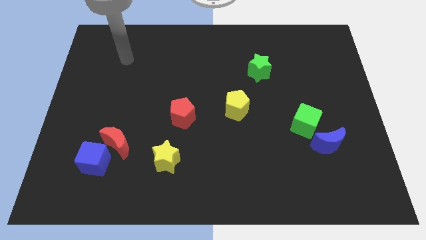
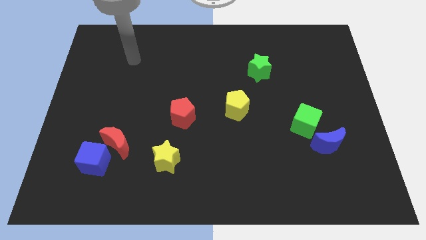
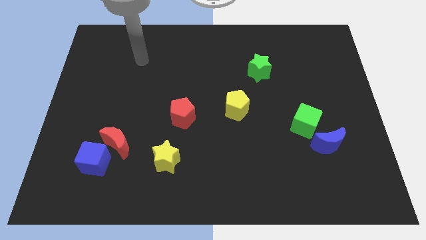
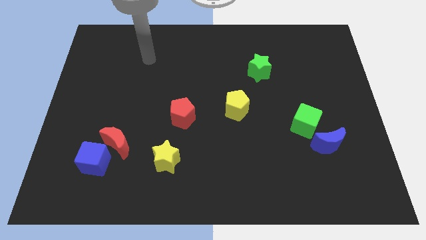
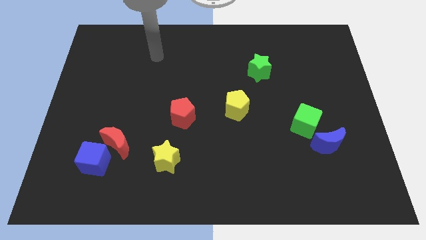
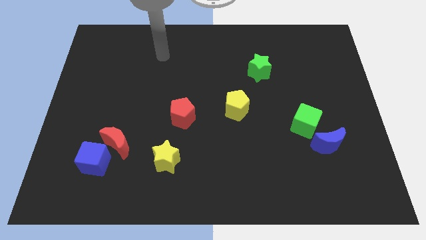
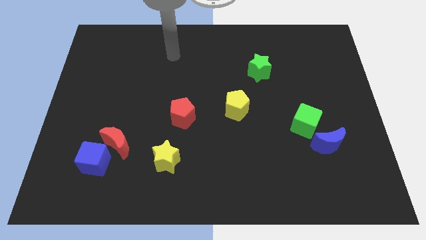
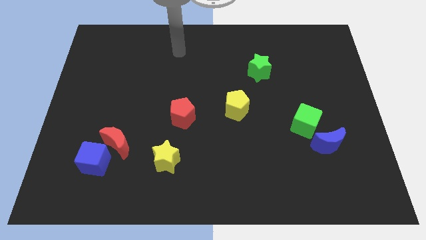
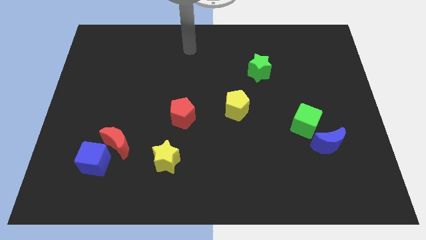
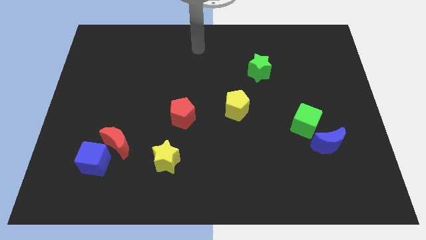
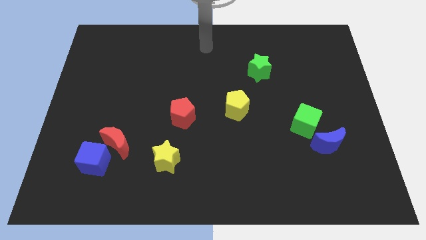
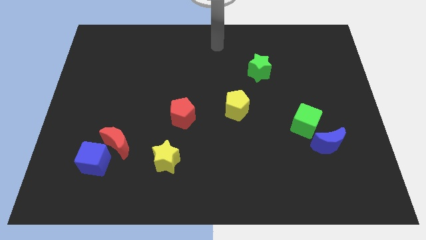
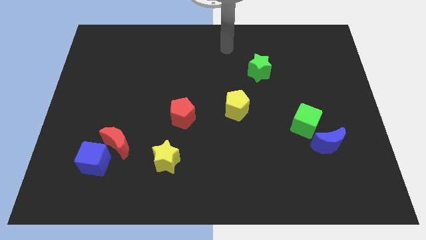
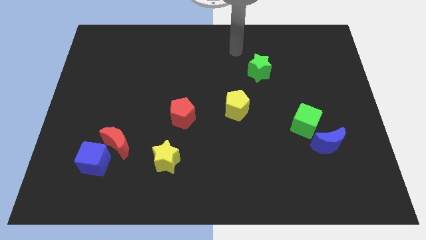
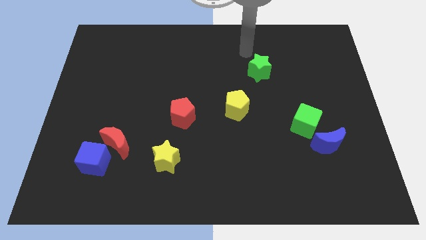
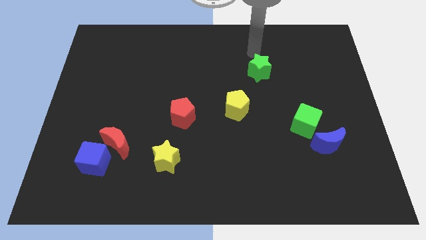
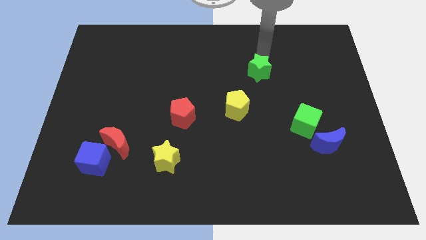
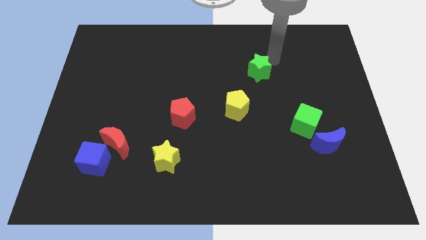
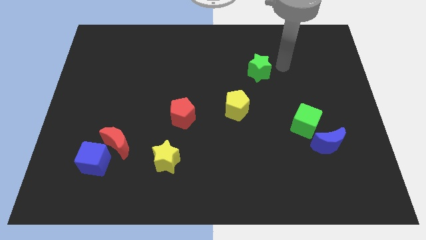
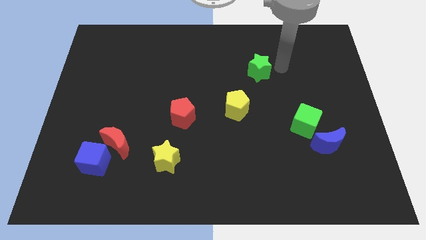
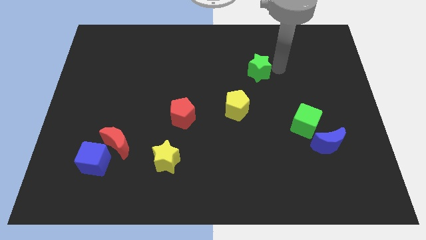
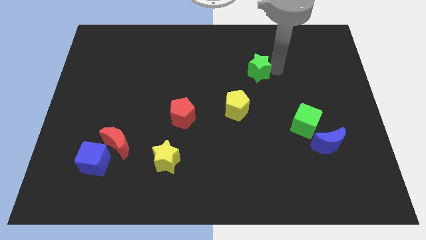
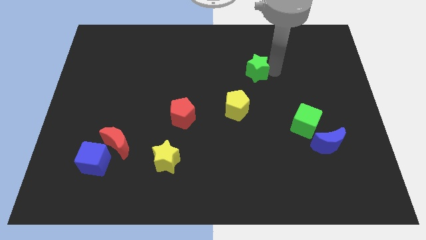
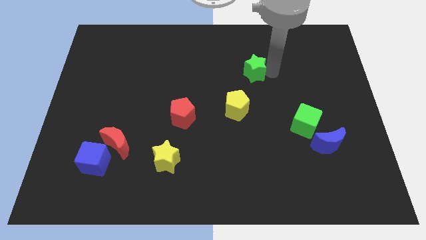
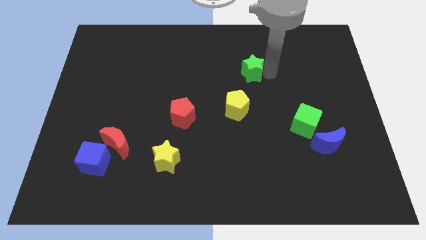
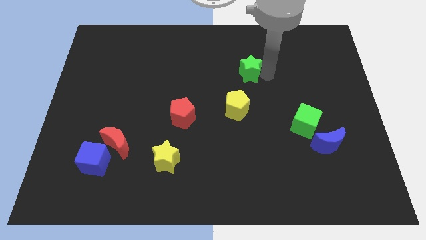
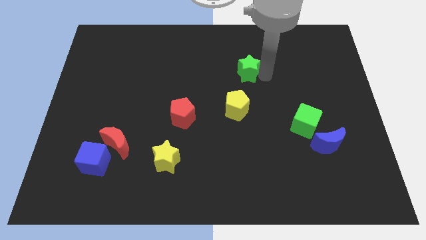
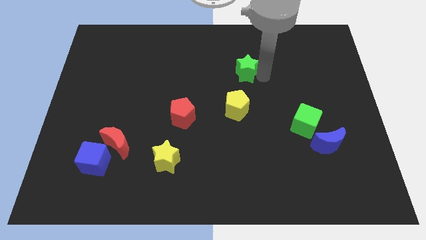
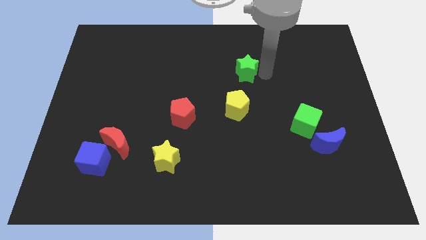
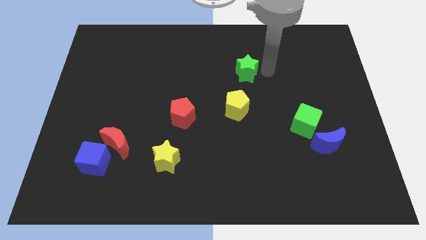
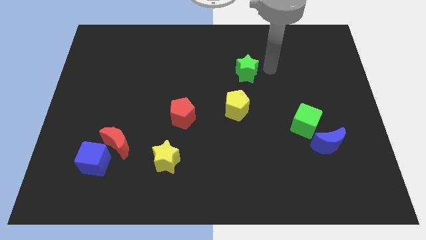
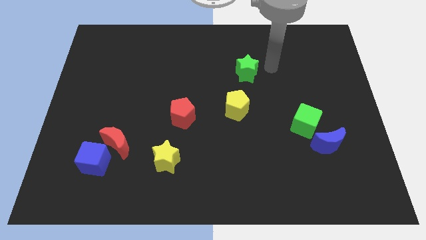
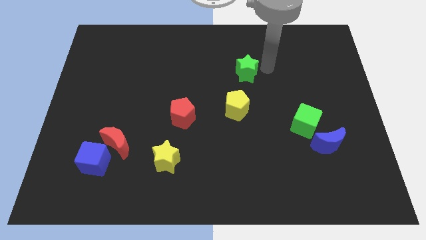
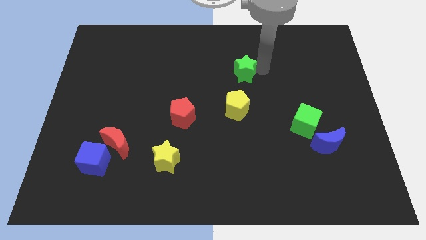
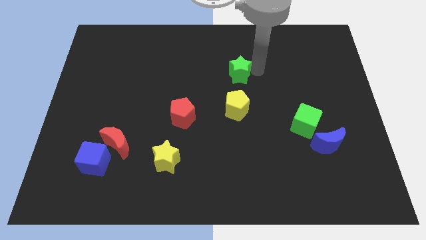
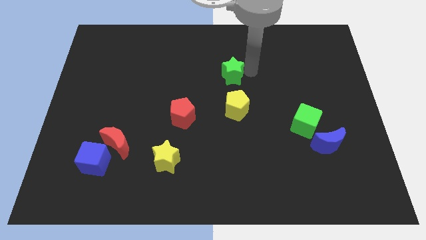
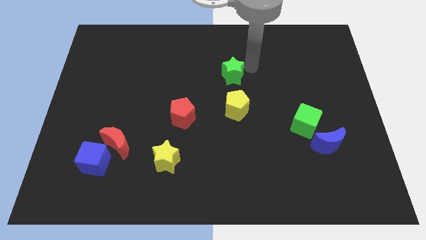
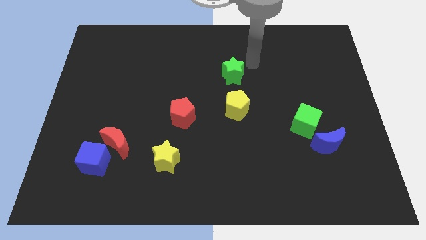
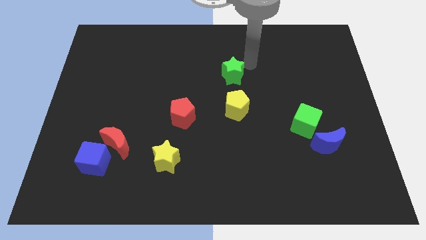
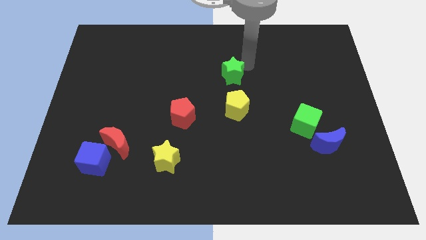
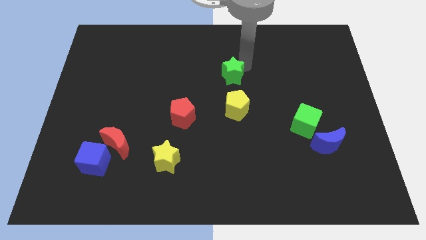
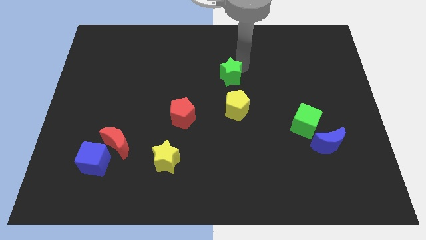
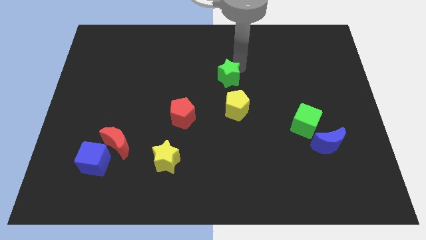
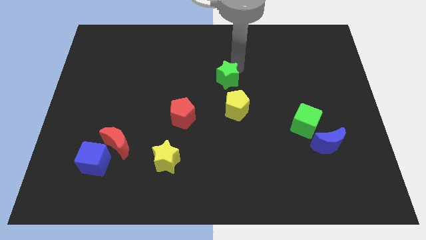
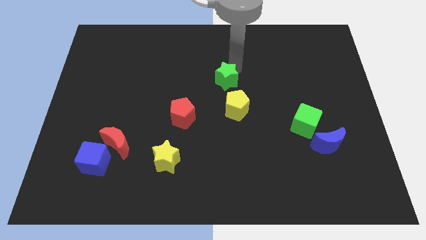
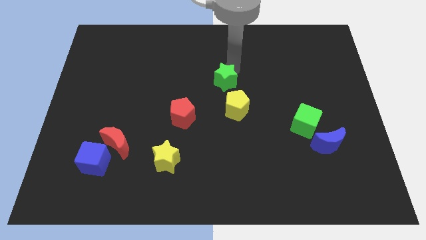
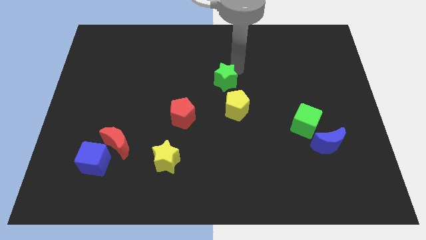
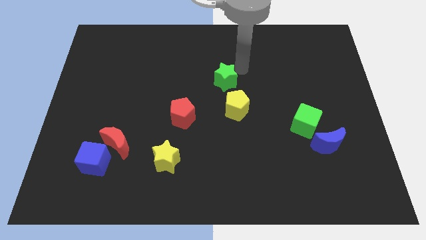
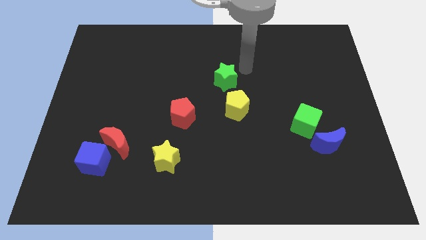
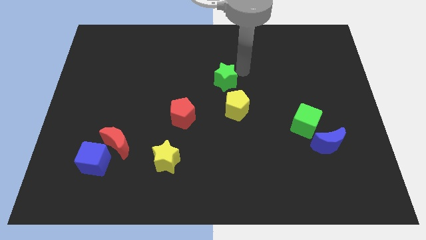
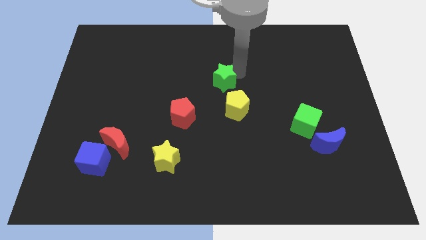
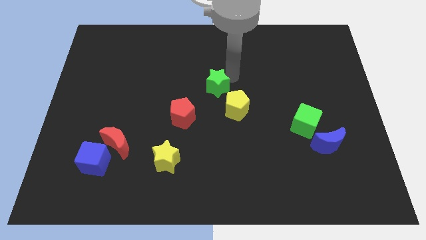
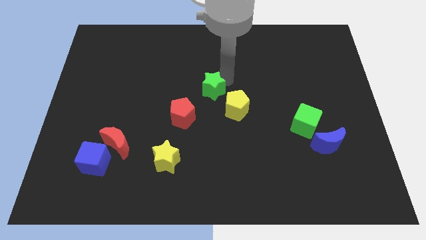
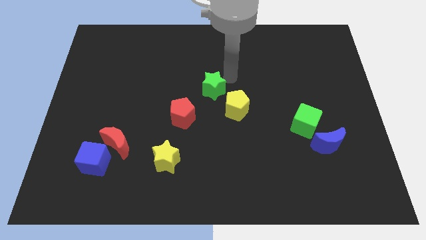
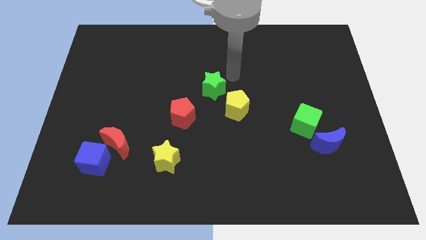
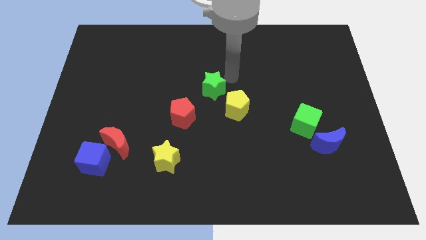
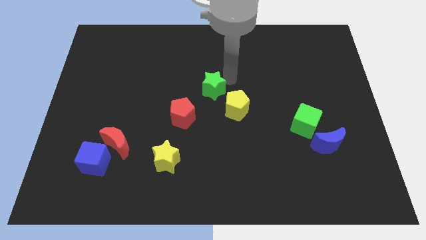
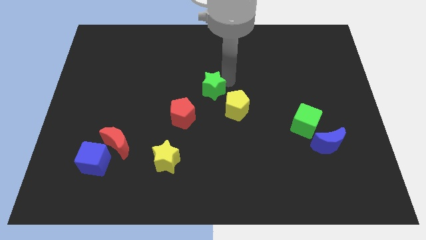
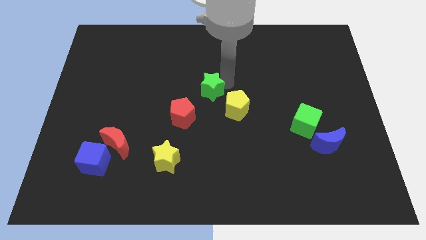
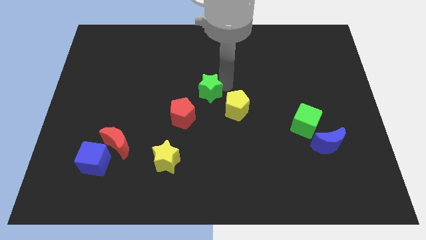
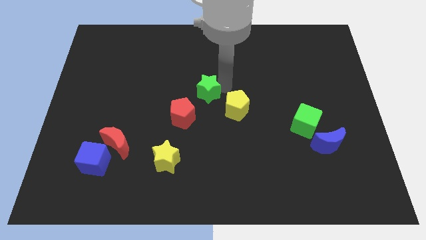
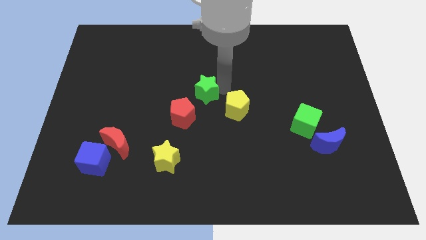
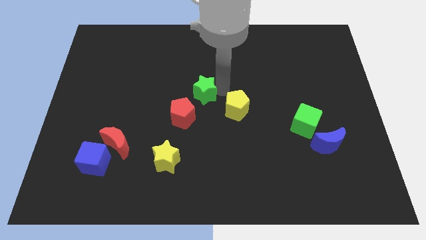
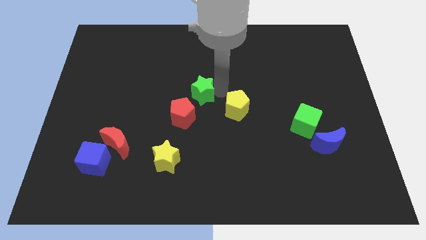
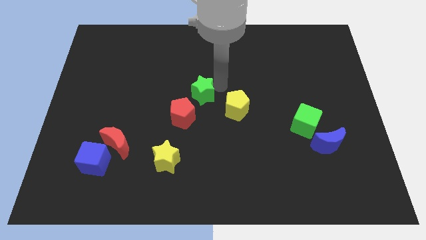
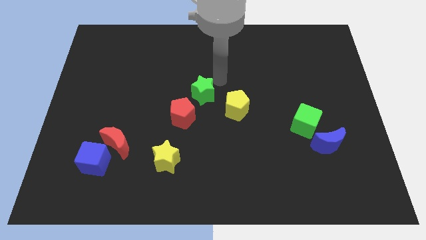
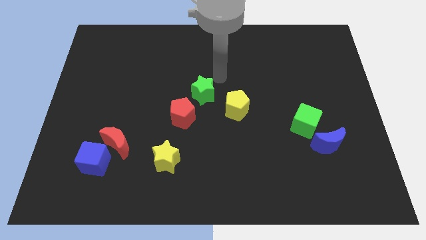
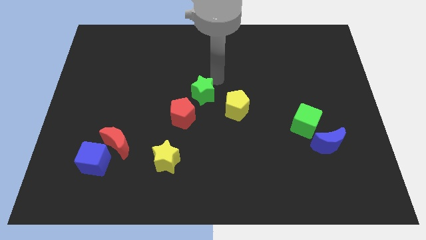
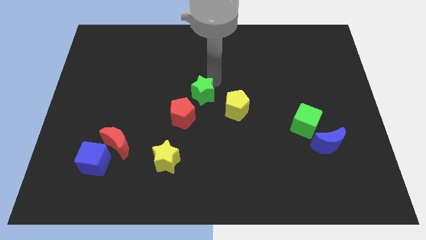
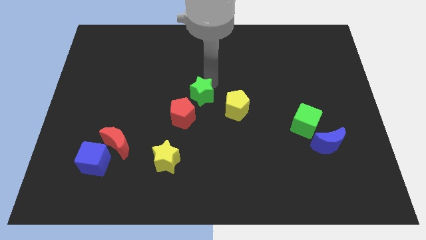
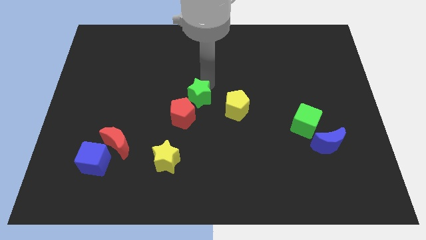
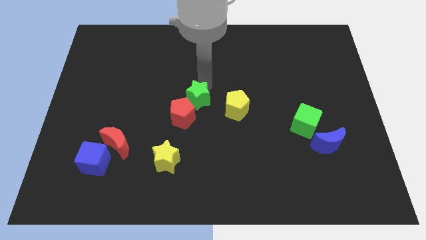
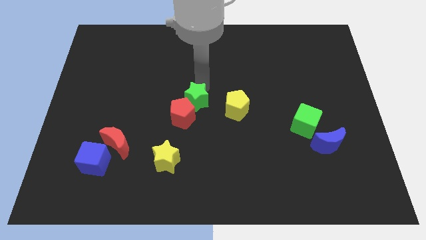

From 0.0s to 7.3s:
slide the green star to the red pentagon

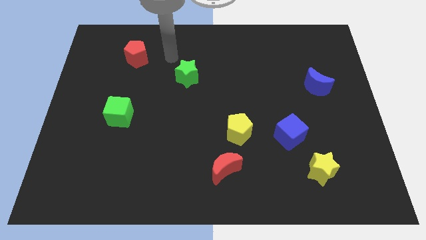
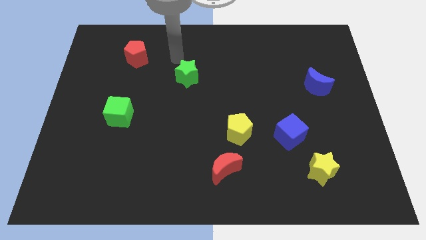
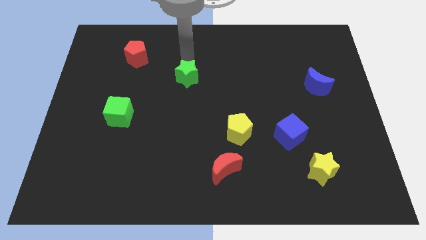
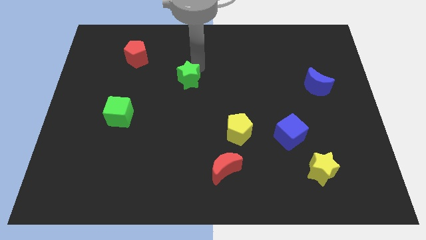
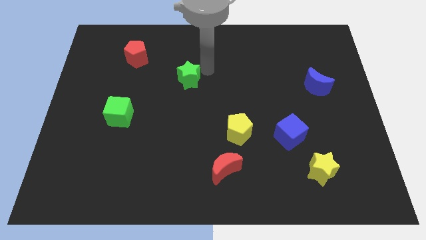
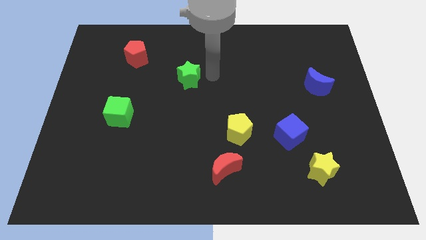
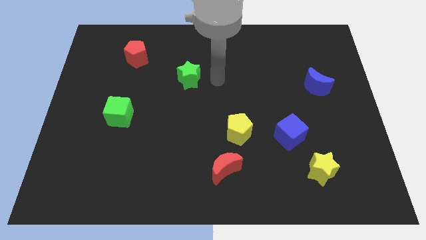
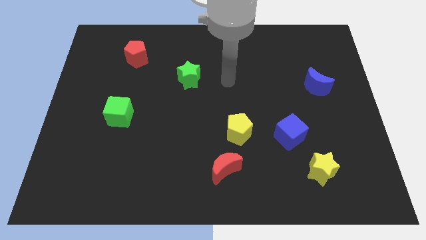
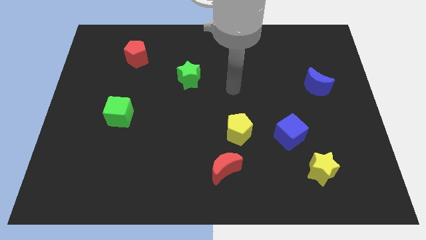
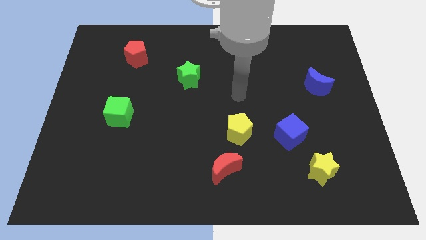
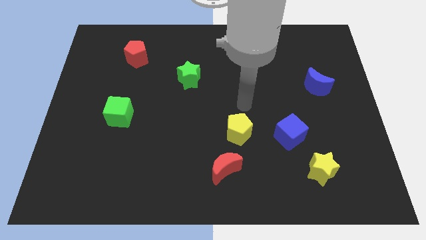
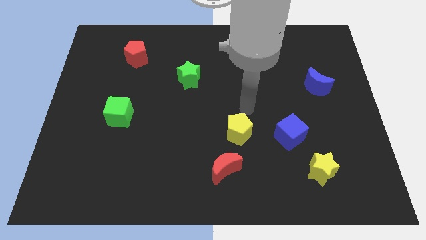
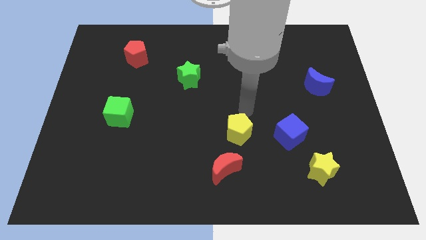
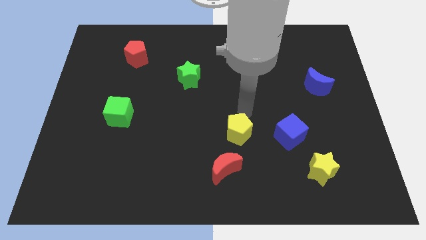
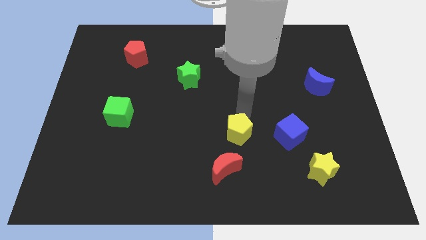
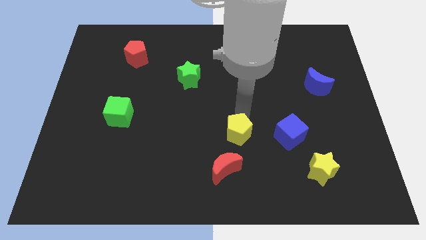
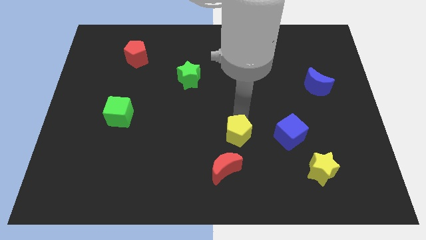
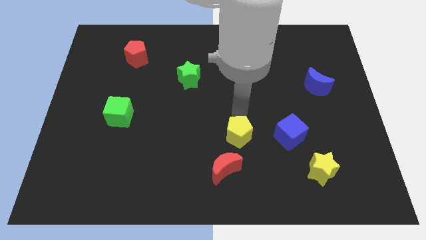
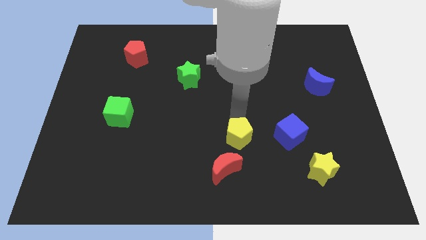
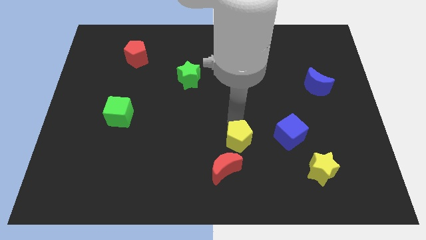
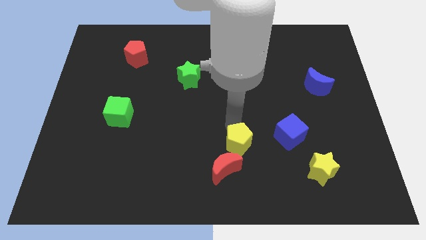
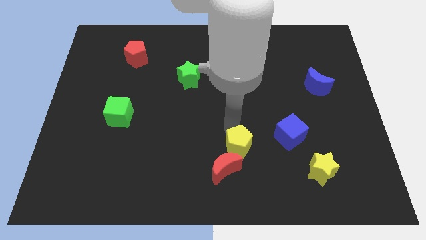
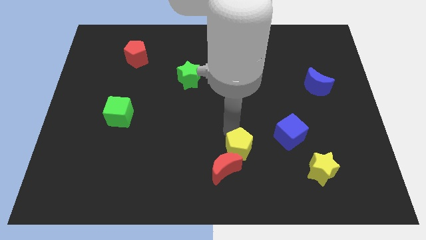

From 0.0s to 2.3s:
slide the yellow pentagon close to the red moon
